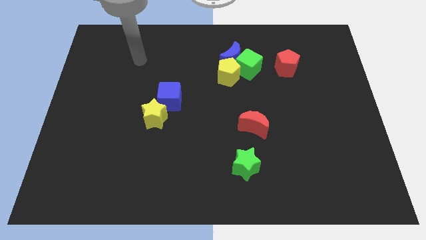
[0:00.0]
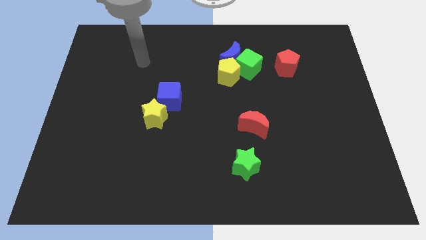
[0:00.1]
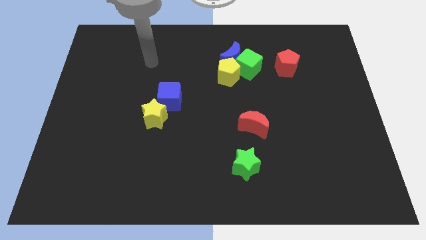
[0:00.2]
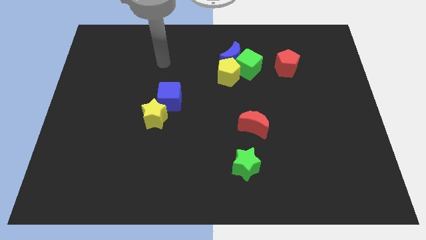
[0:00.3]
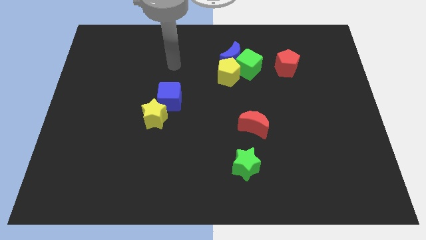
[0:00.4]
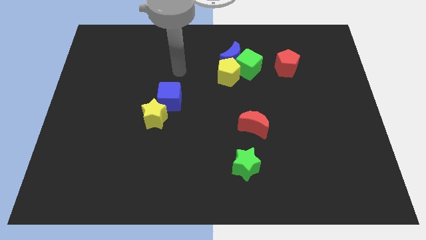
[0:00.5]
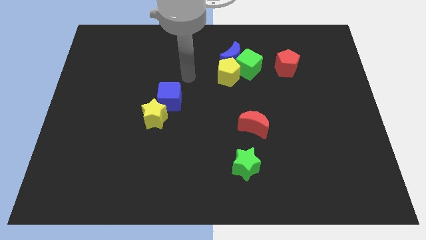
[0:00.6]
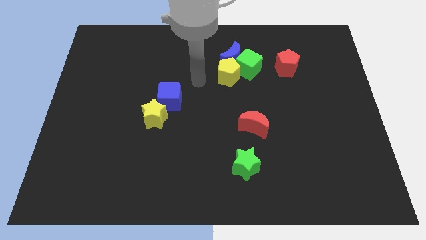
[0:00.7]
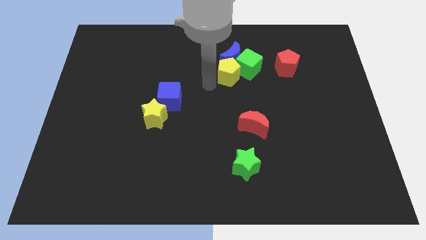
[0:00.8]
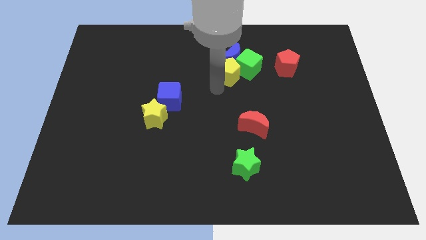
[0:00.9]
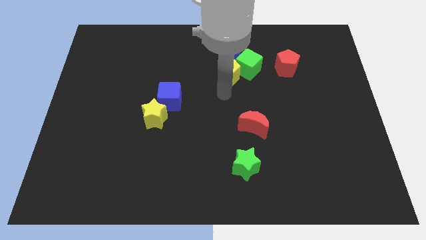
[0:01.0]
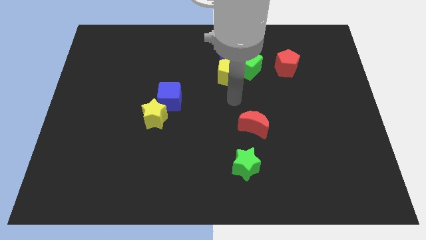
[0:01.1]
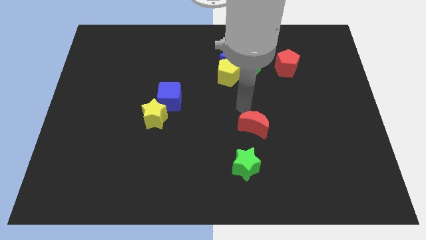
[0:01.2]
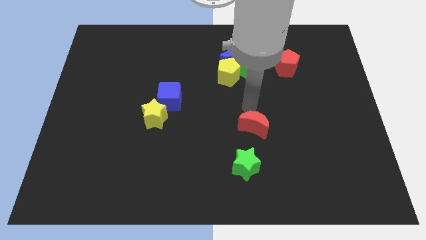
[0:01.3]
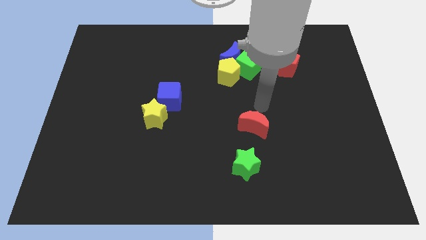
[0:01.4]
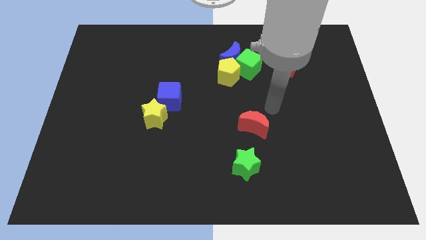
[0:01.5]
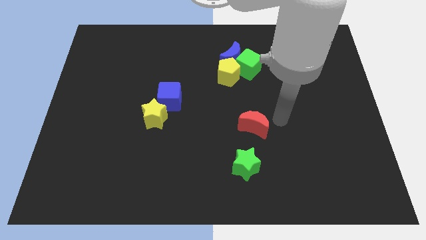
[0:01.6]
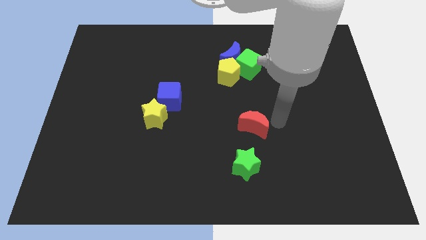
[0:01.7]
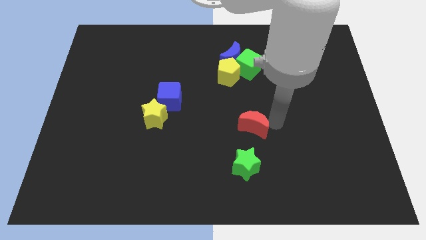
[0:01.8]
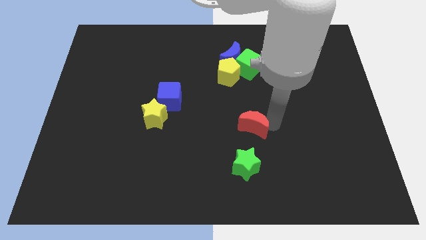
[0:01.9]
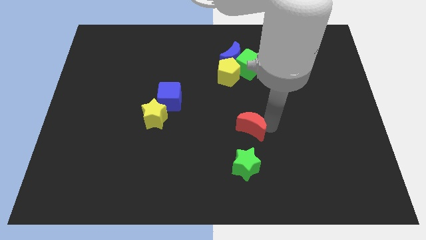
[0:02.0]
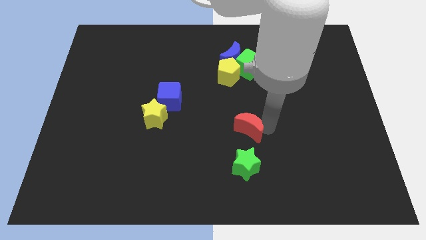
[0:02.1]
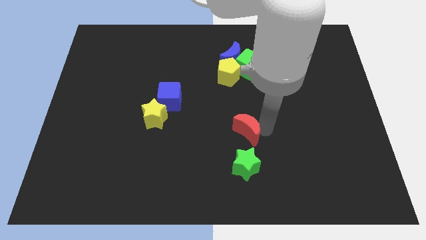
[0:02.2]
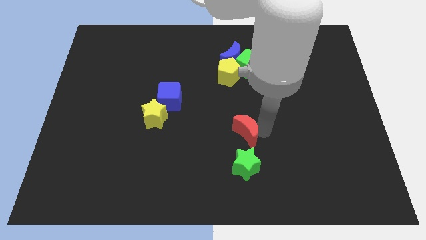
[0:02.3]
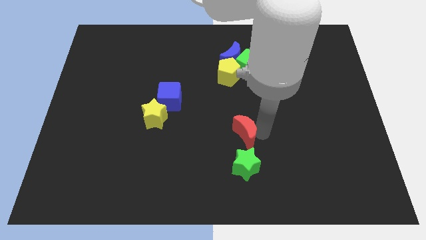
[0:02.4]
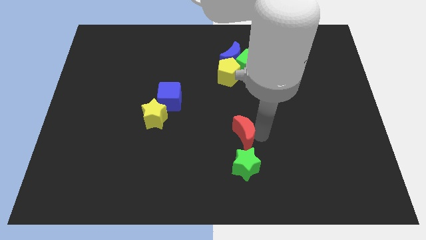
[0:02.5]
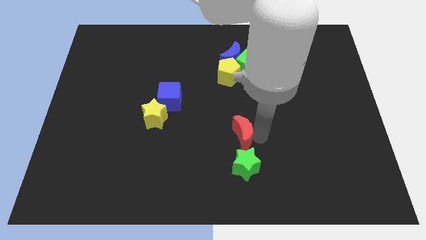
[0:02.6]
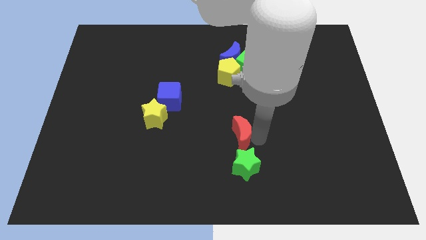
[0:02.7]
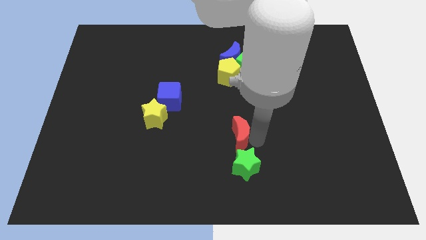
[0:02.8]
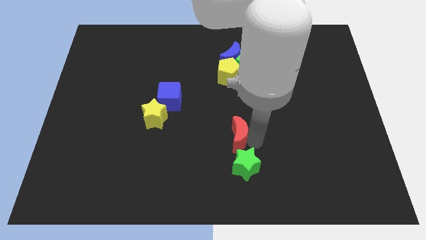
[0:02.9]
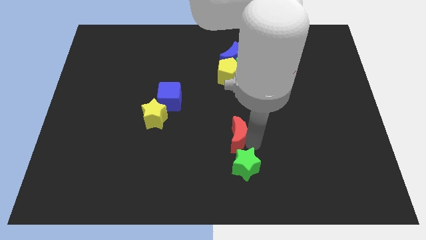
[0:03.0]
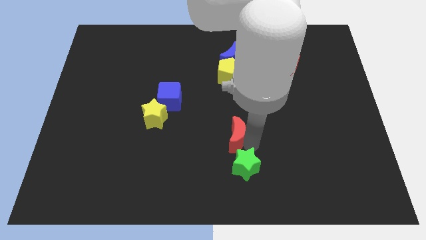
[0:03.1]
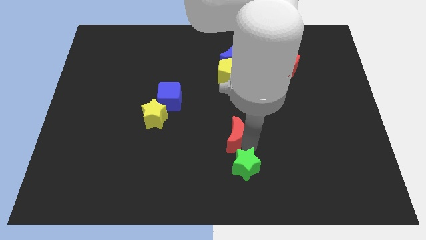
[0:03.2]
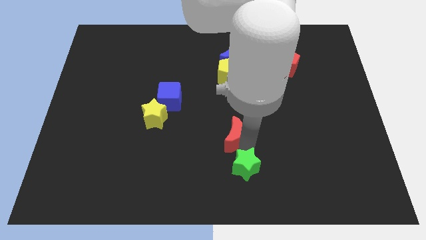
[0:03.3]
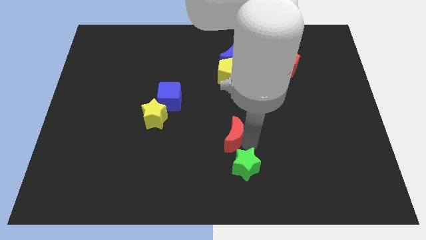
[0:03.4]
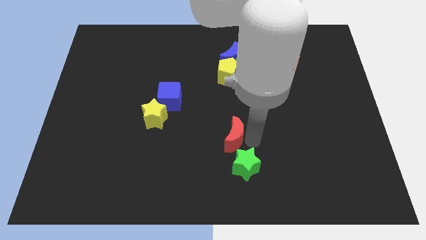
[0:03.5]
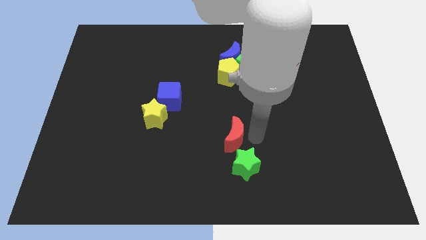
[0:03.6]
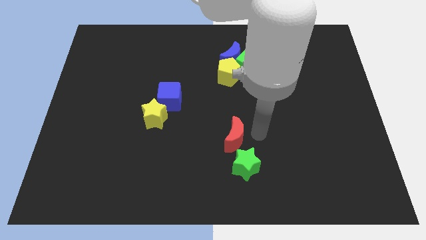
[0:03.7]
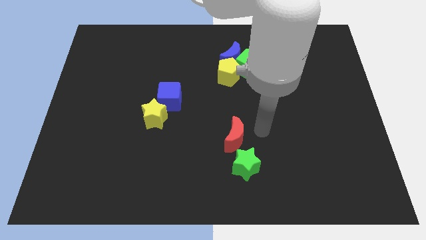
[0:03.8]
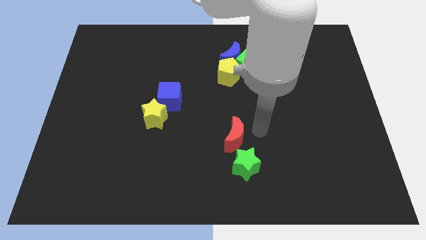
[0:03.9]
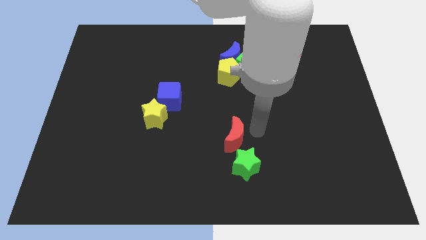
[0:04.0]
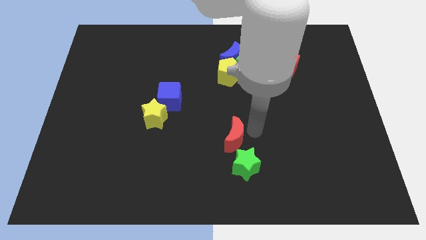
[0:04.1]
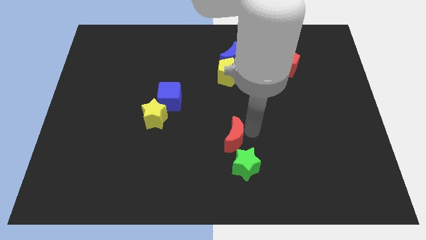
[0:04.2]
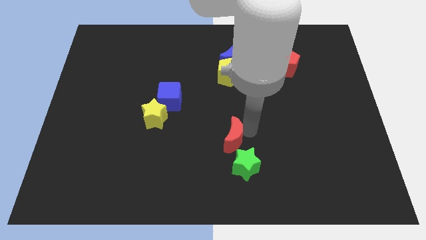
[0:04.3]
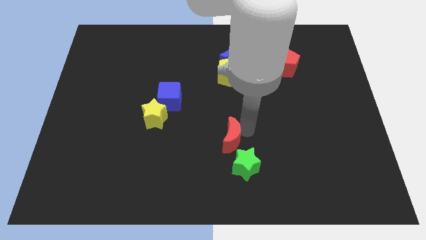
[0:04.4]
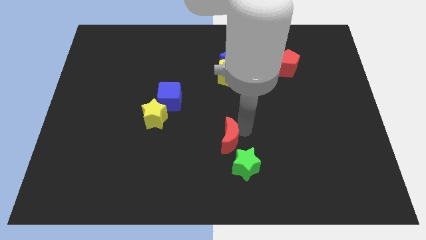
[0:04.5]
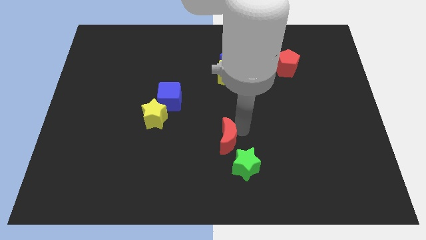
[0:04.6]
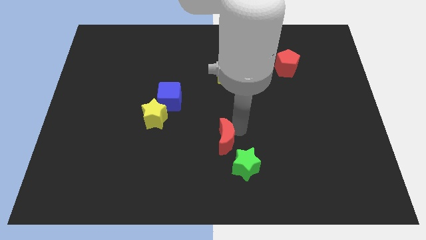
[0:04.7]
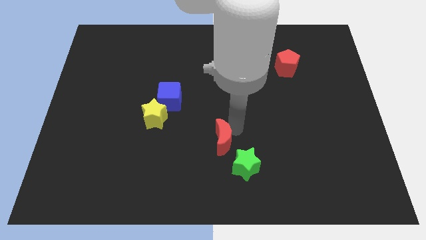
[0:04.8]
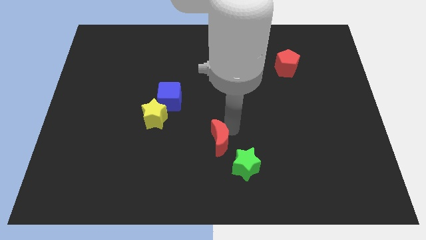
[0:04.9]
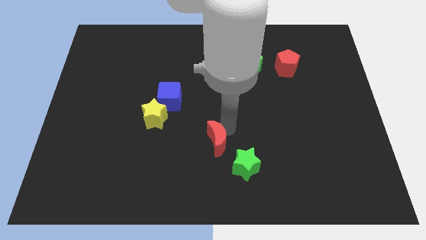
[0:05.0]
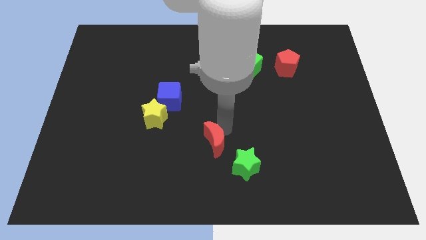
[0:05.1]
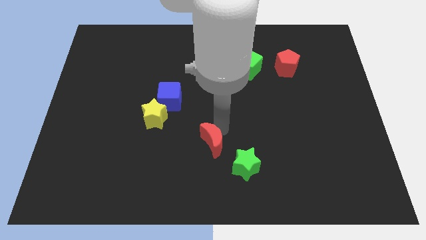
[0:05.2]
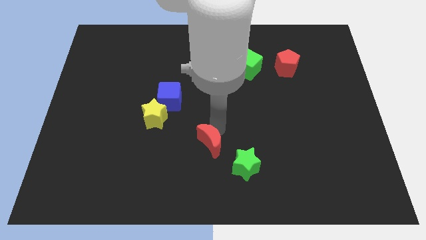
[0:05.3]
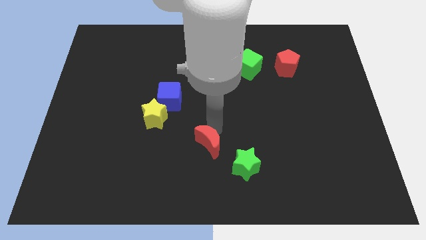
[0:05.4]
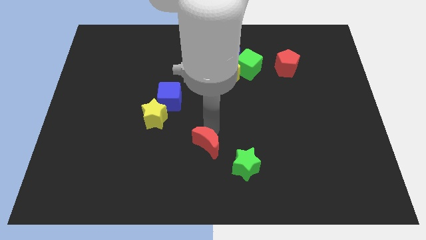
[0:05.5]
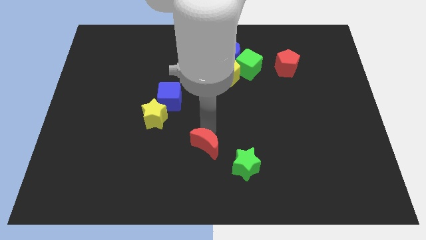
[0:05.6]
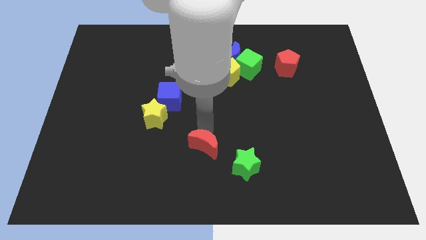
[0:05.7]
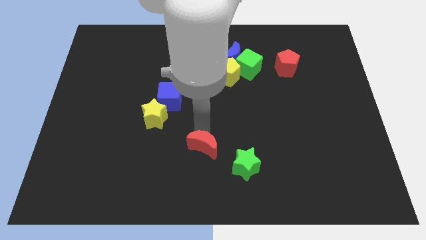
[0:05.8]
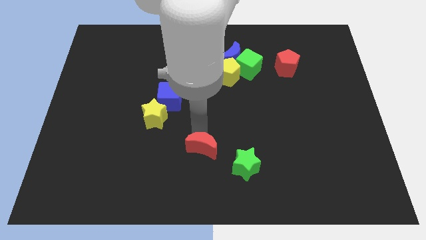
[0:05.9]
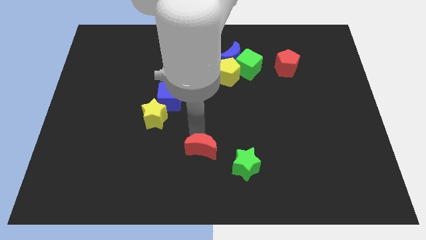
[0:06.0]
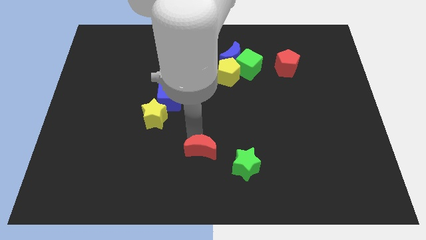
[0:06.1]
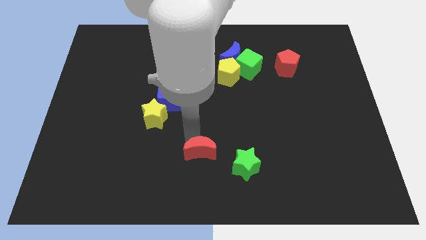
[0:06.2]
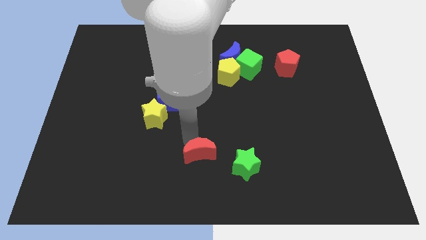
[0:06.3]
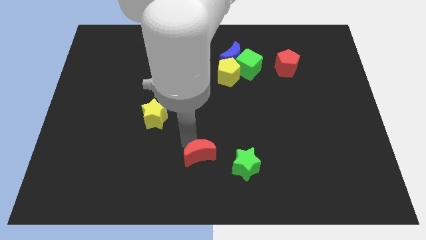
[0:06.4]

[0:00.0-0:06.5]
slide the red moon to the bottom side
